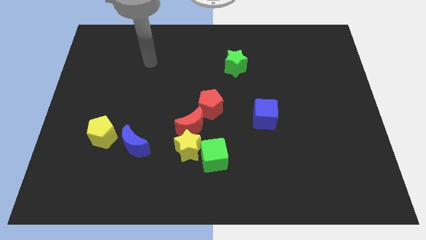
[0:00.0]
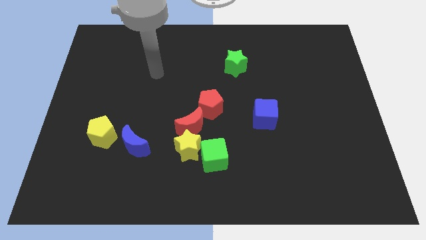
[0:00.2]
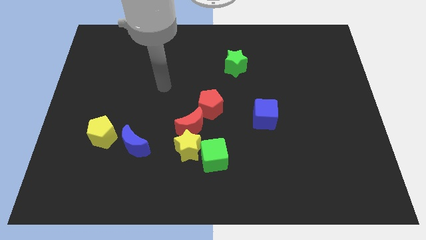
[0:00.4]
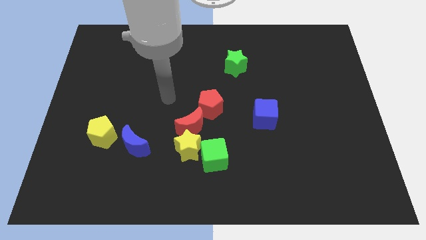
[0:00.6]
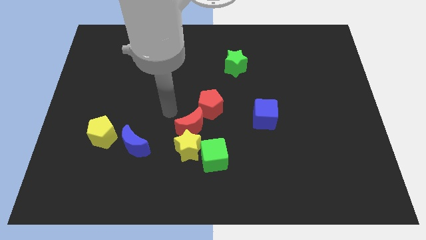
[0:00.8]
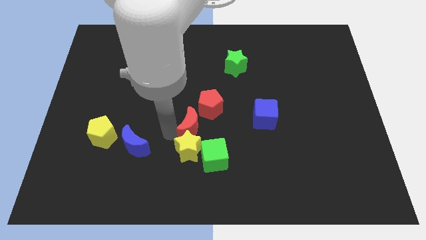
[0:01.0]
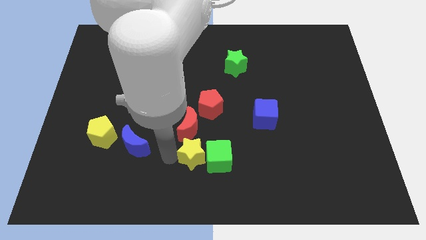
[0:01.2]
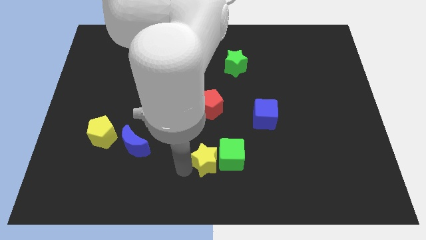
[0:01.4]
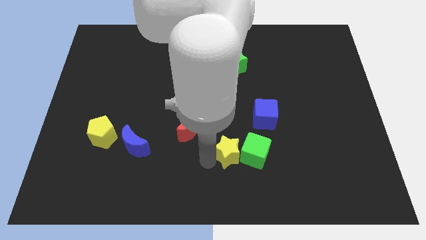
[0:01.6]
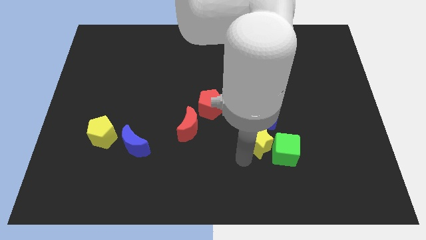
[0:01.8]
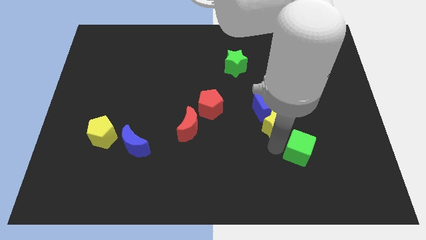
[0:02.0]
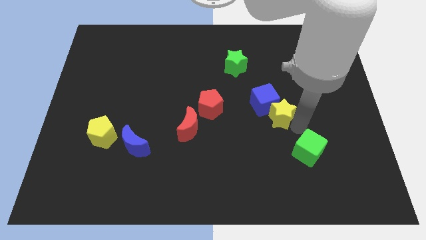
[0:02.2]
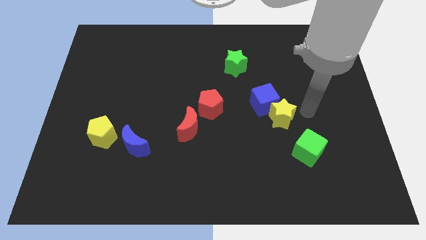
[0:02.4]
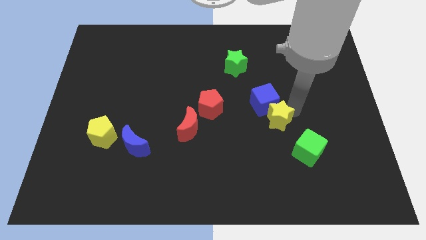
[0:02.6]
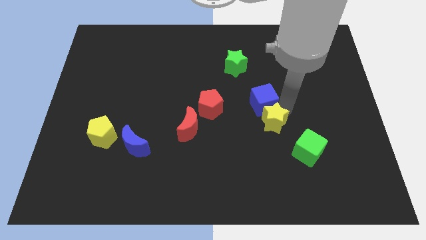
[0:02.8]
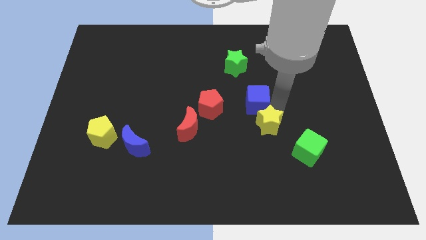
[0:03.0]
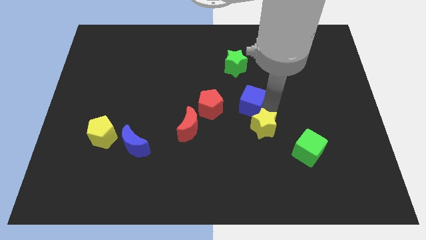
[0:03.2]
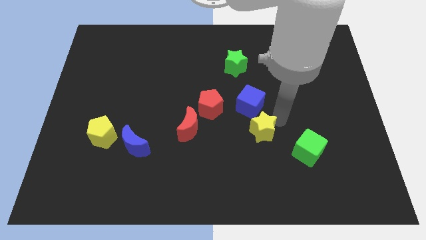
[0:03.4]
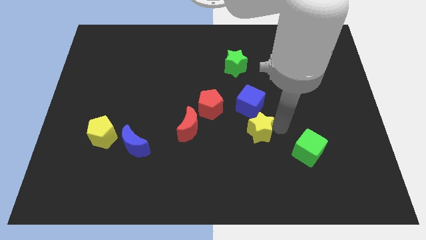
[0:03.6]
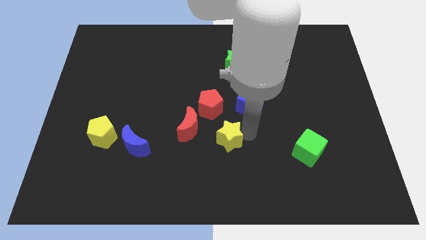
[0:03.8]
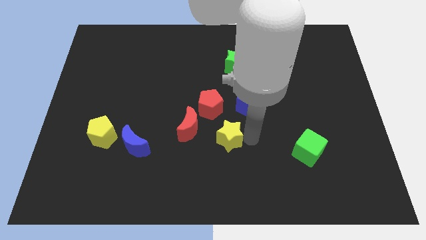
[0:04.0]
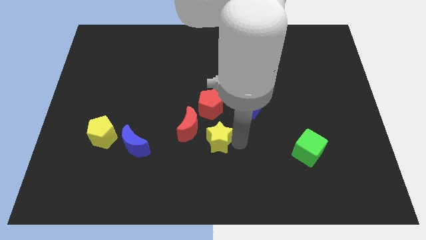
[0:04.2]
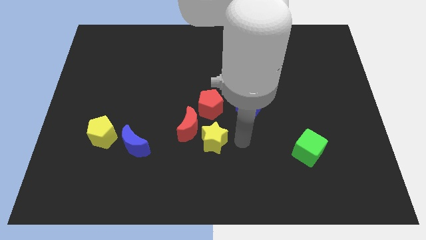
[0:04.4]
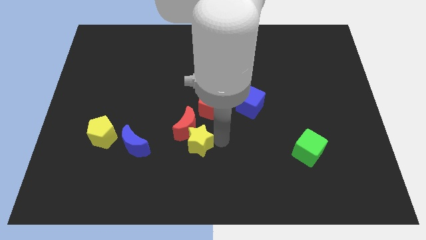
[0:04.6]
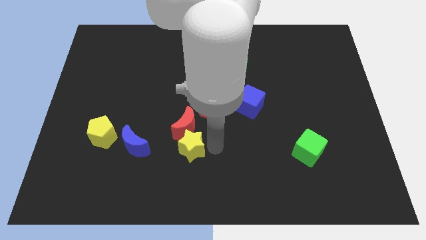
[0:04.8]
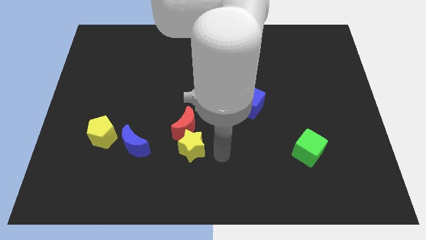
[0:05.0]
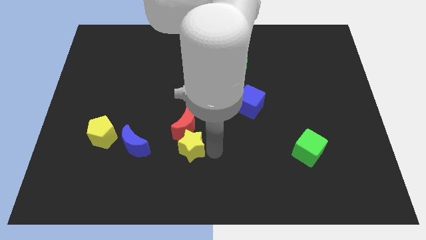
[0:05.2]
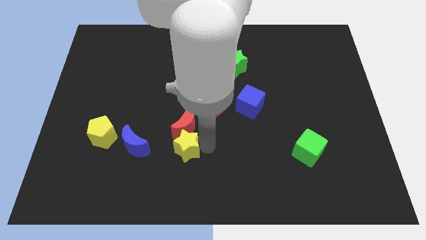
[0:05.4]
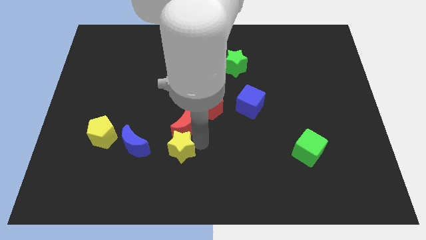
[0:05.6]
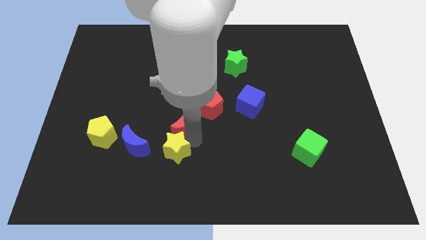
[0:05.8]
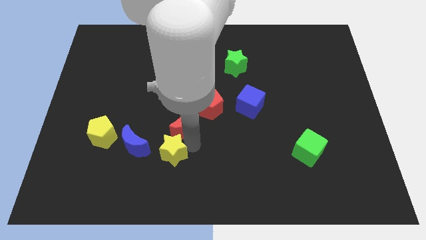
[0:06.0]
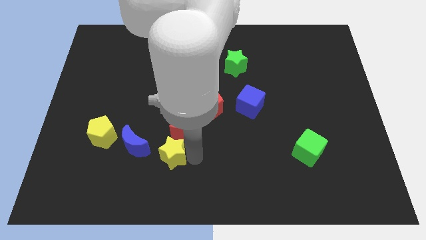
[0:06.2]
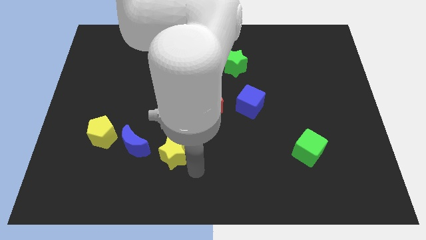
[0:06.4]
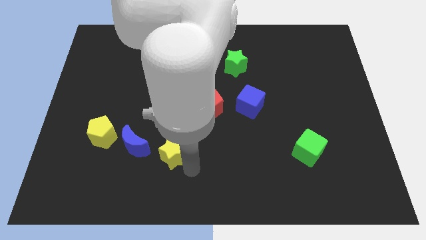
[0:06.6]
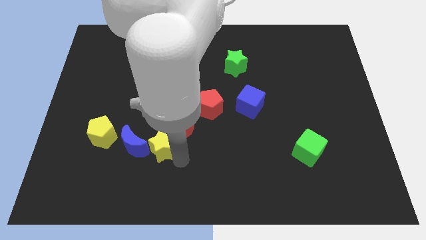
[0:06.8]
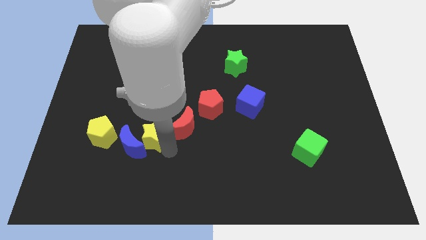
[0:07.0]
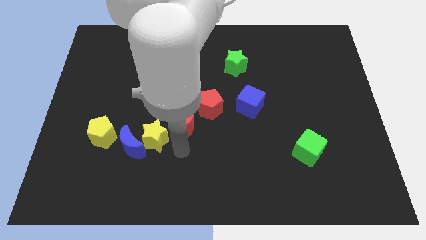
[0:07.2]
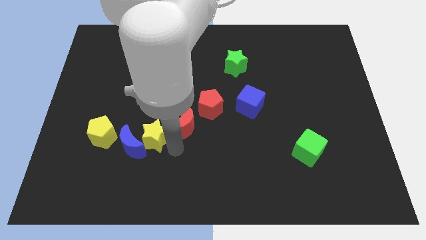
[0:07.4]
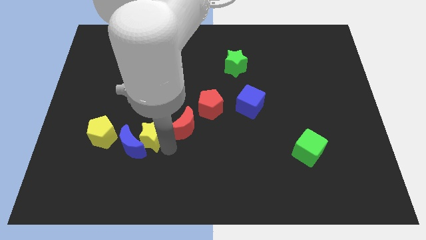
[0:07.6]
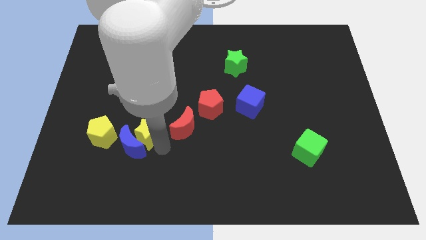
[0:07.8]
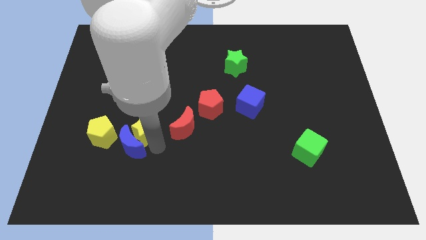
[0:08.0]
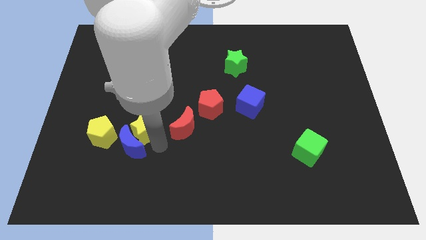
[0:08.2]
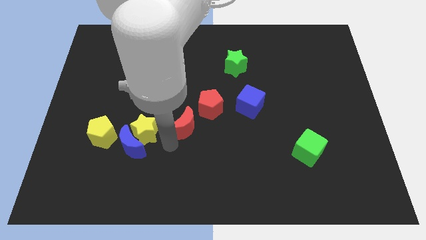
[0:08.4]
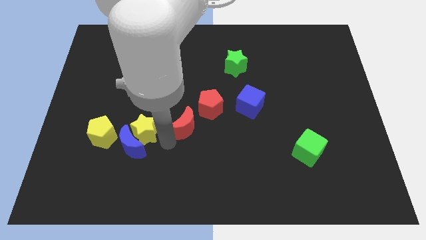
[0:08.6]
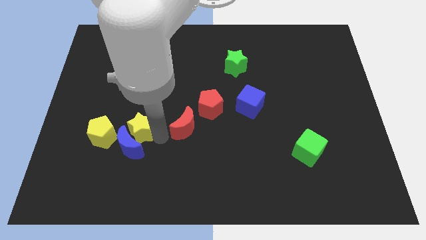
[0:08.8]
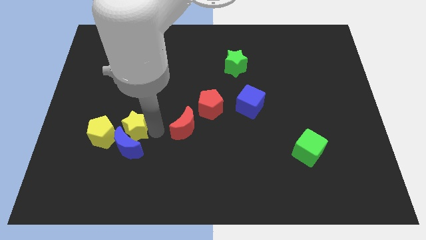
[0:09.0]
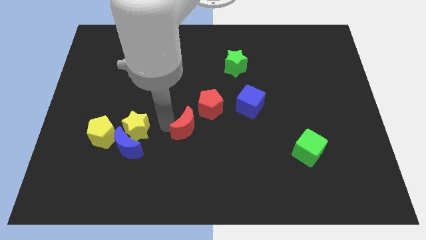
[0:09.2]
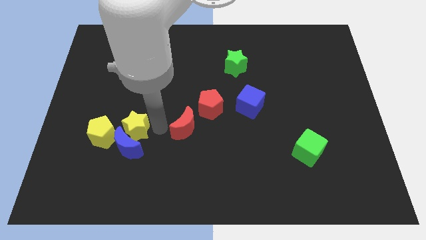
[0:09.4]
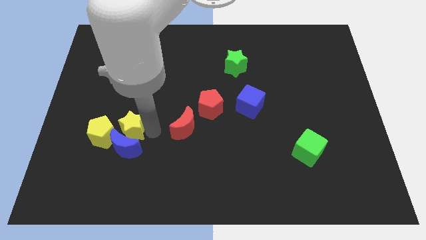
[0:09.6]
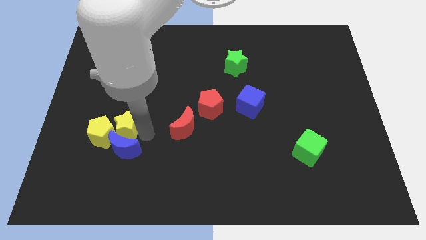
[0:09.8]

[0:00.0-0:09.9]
push the yellow star next to the yellow pentagon

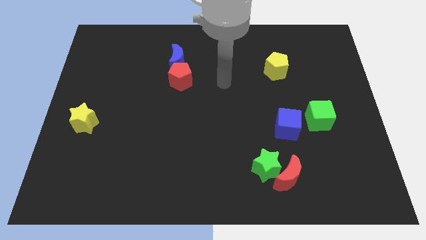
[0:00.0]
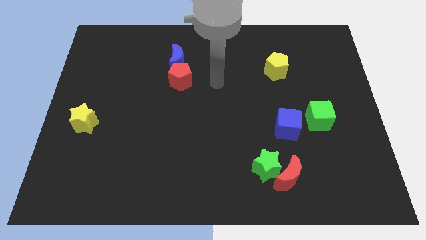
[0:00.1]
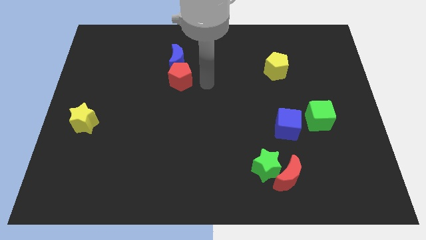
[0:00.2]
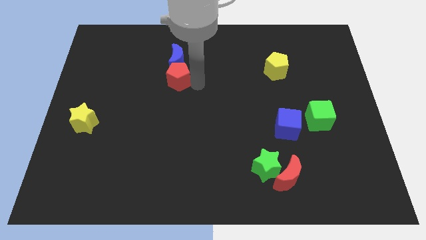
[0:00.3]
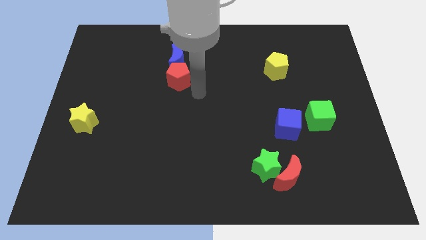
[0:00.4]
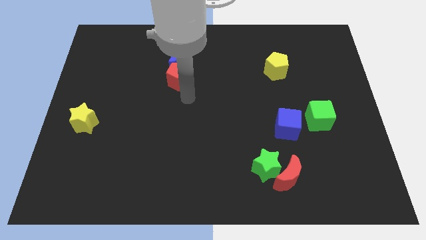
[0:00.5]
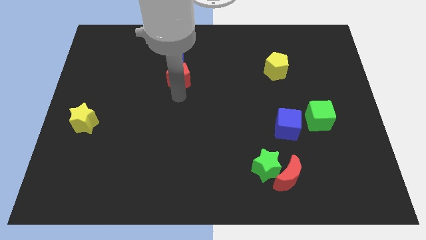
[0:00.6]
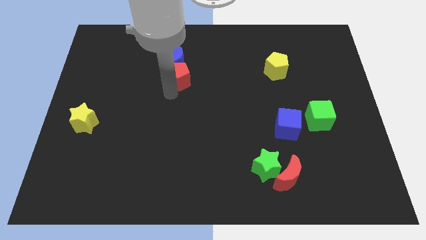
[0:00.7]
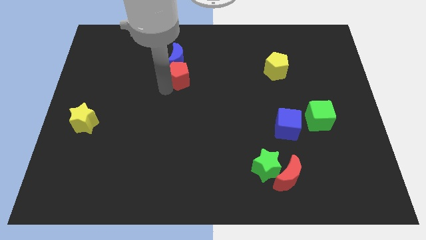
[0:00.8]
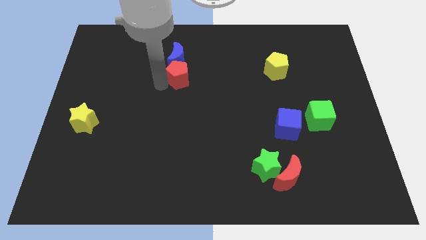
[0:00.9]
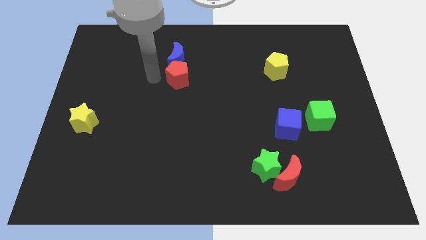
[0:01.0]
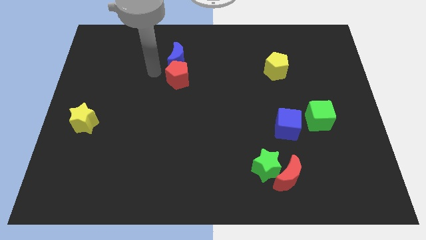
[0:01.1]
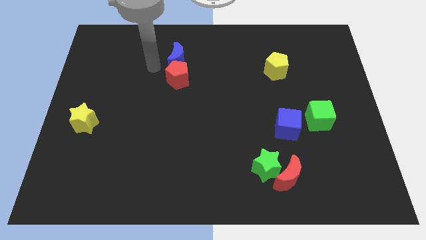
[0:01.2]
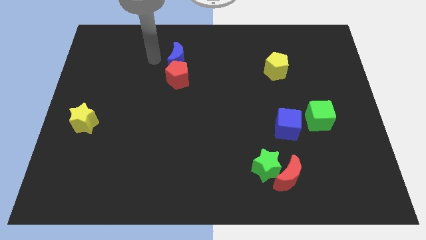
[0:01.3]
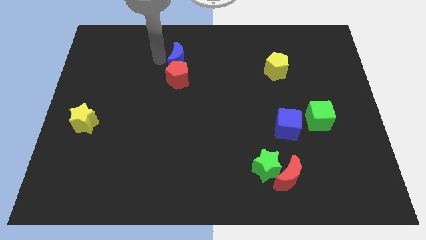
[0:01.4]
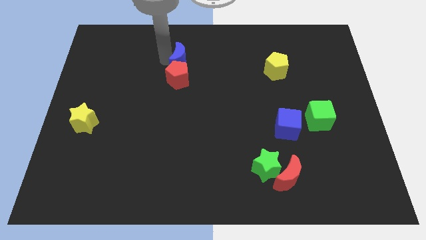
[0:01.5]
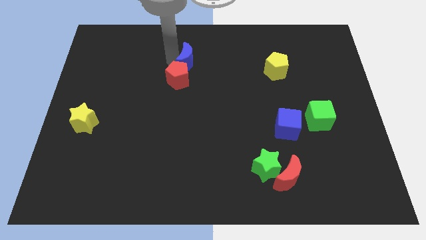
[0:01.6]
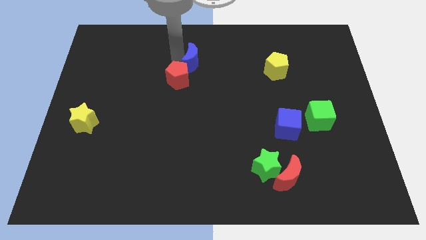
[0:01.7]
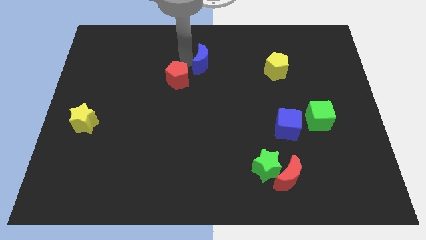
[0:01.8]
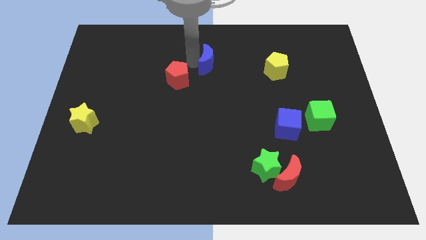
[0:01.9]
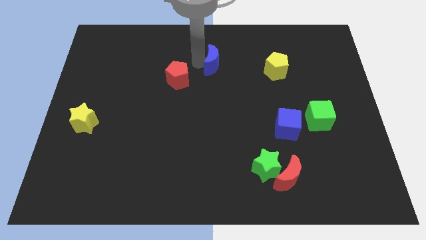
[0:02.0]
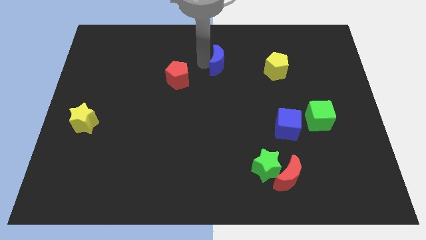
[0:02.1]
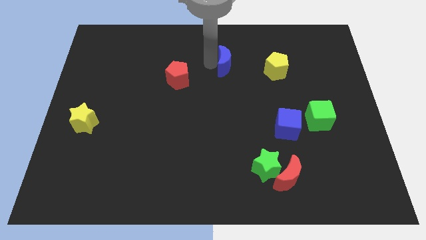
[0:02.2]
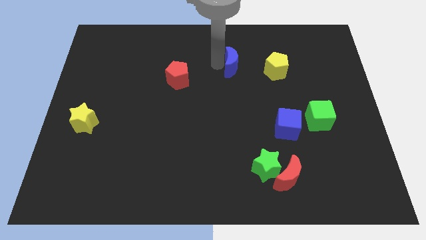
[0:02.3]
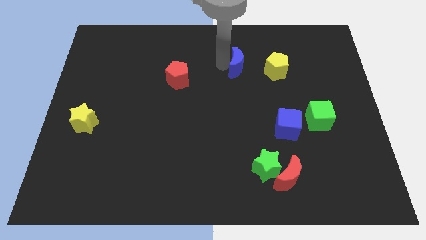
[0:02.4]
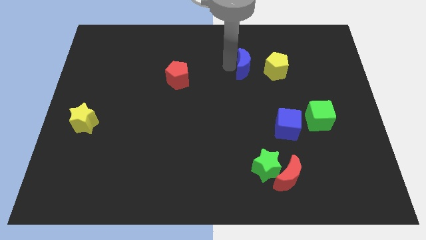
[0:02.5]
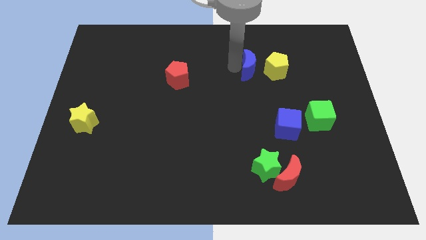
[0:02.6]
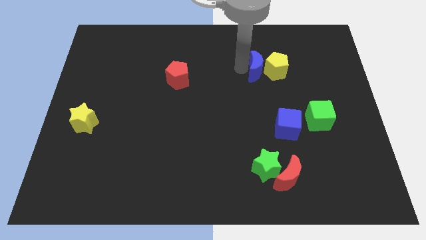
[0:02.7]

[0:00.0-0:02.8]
slide the blue moon towards the yellow pentagon
